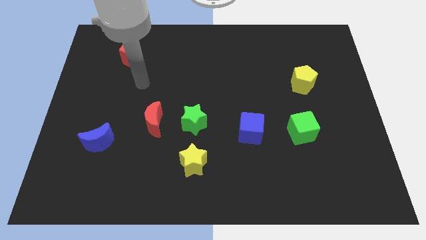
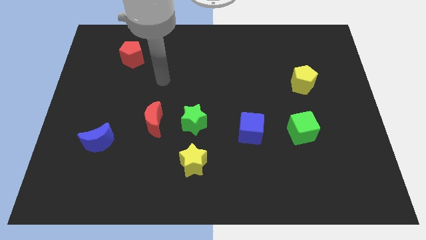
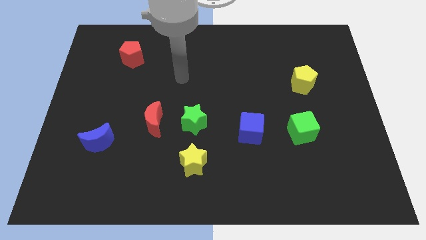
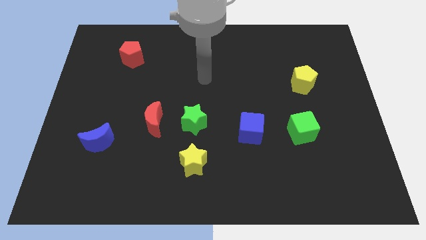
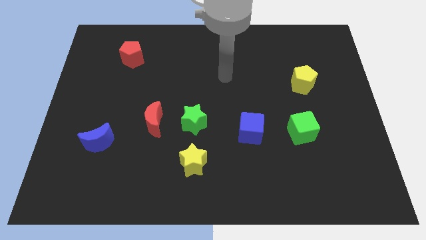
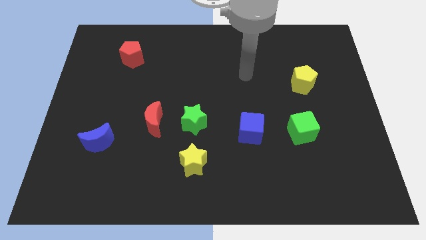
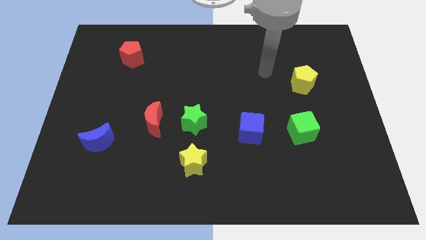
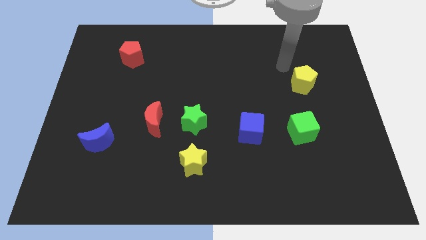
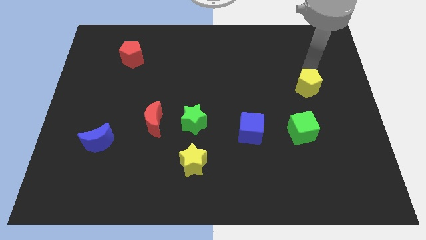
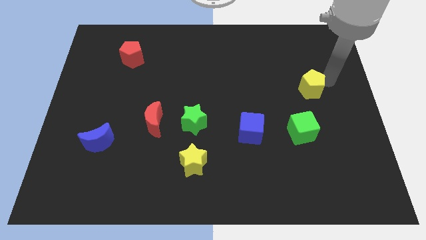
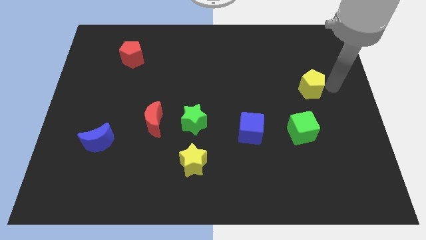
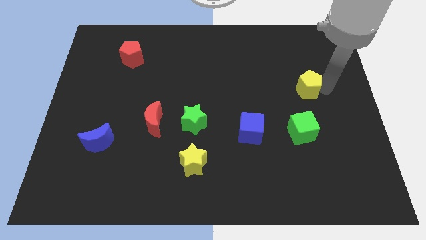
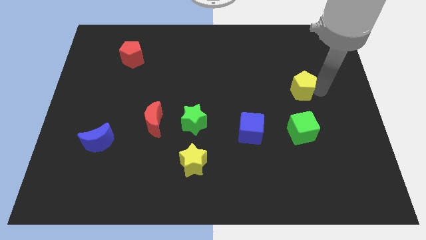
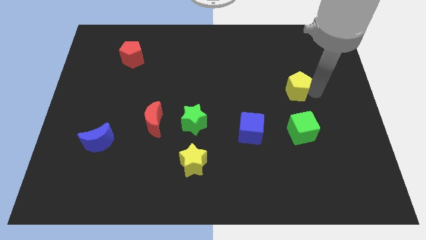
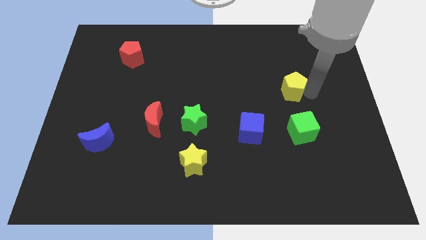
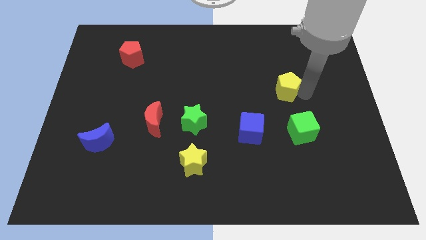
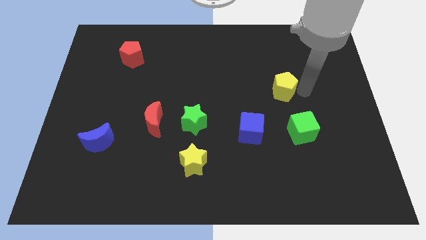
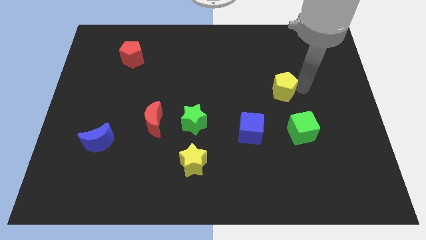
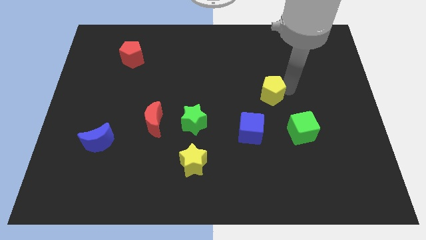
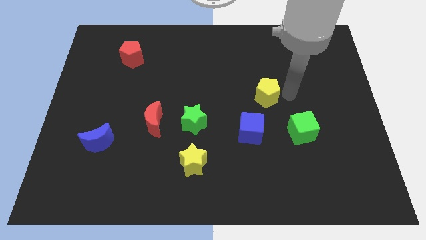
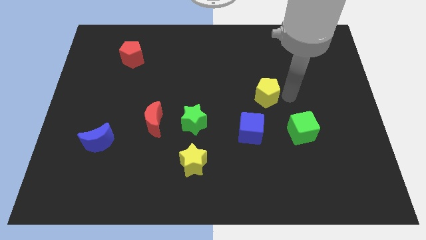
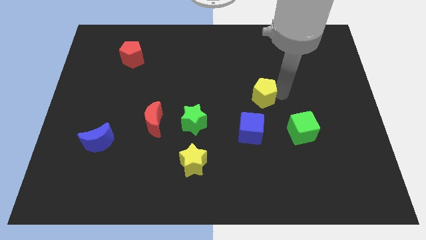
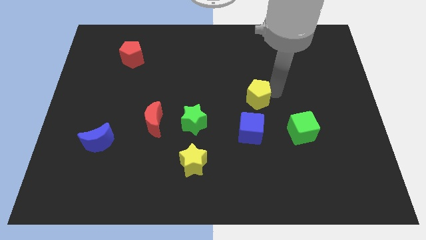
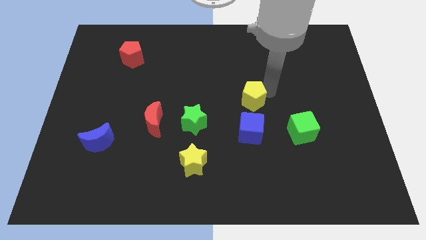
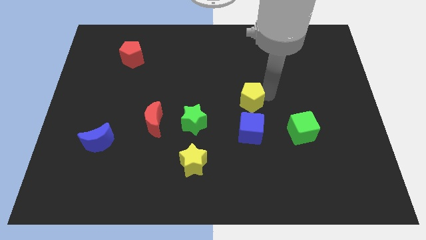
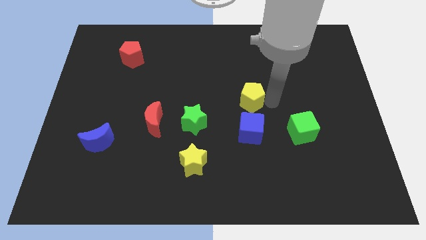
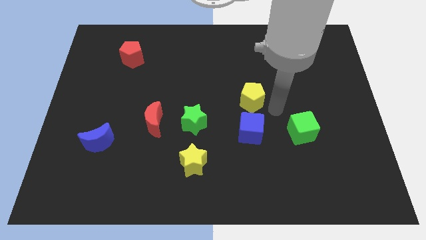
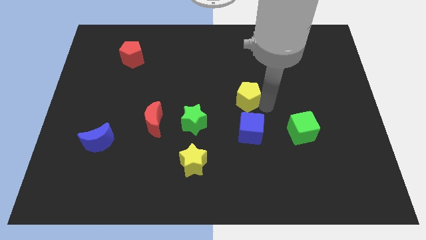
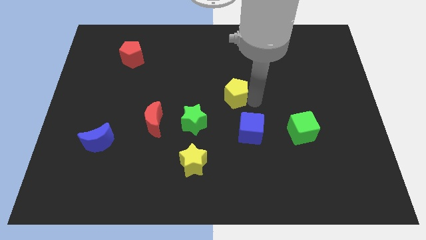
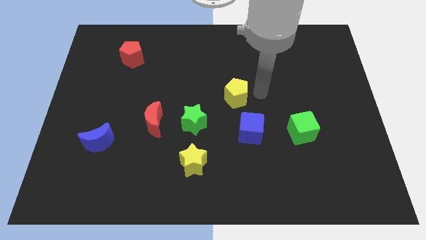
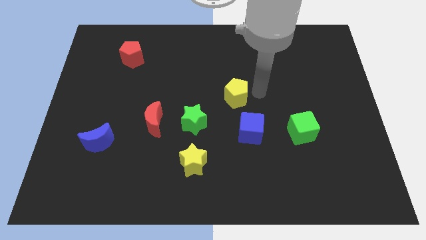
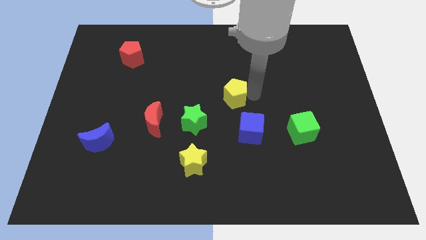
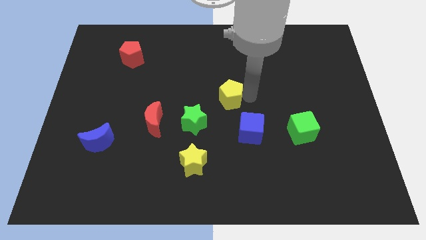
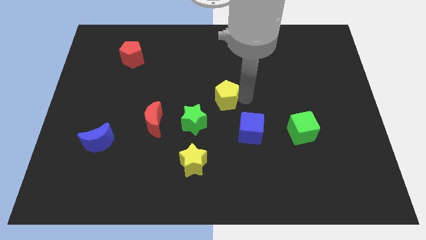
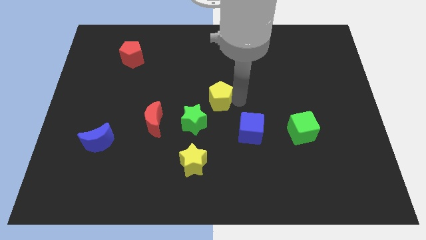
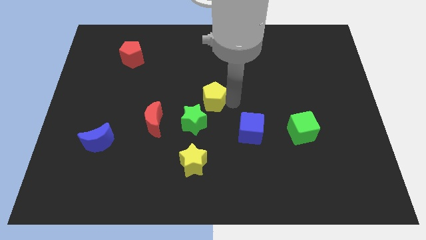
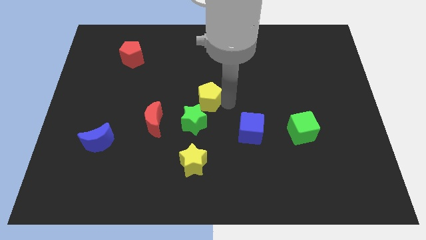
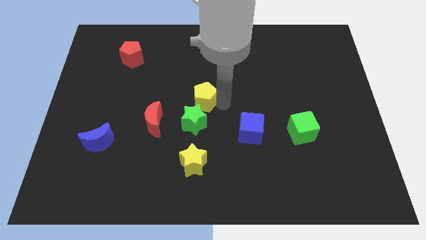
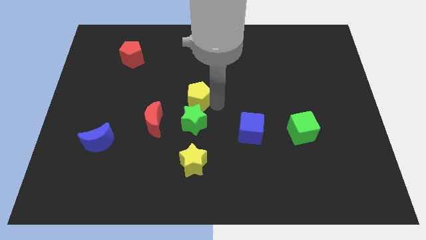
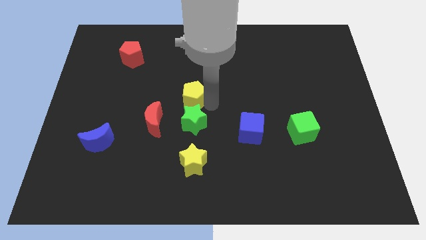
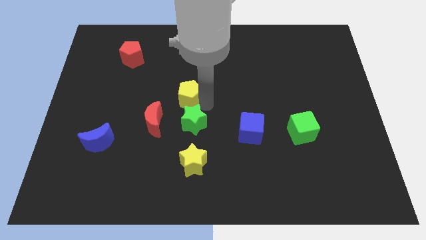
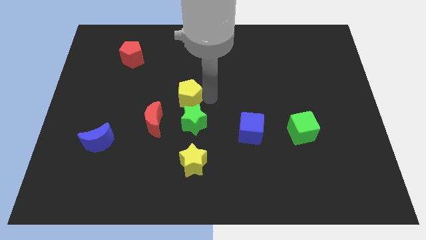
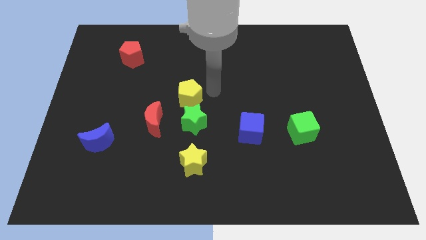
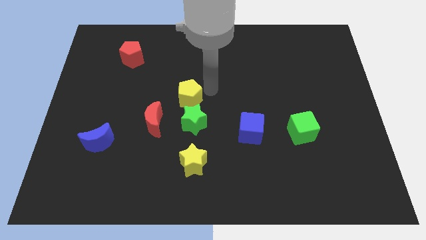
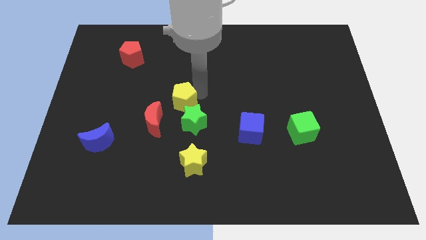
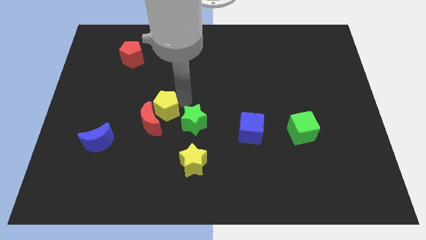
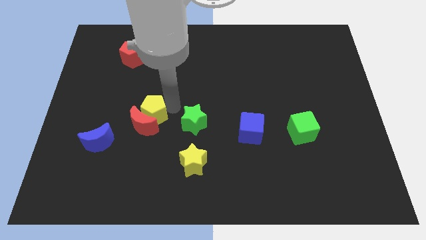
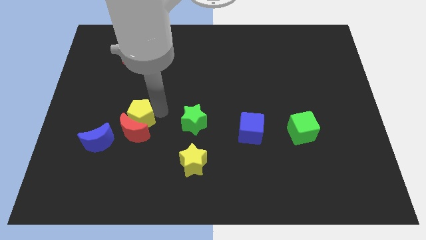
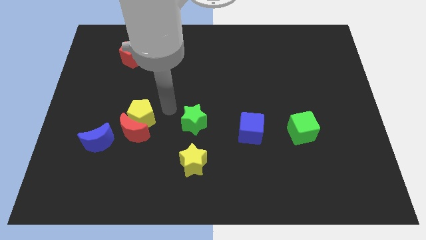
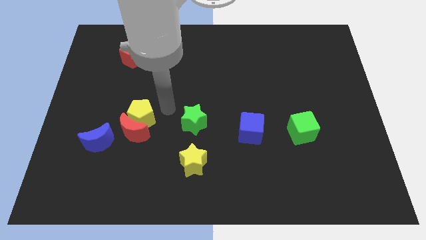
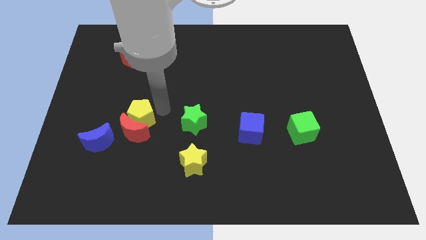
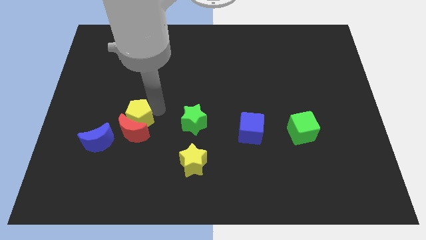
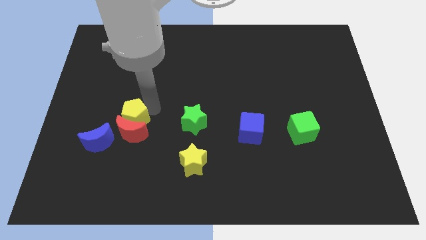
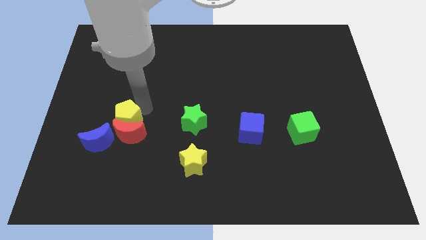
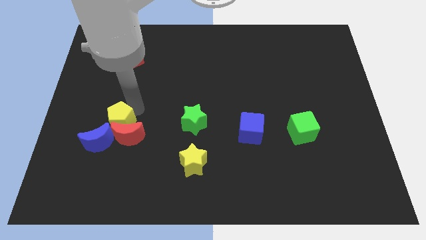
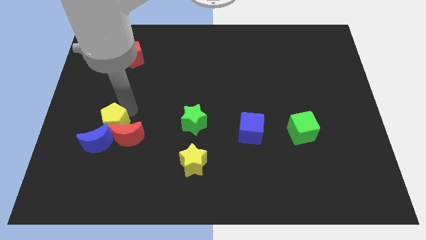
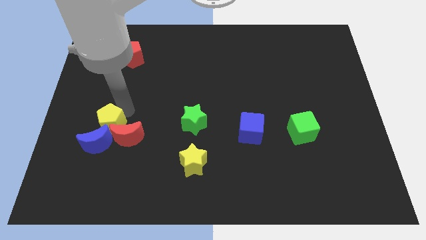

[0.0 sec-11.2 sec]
slide the yellow pentagon close to the blue moon

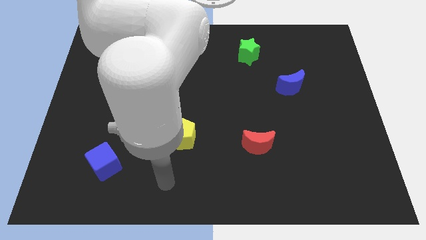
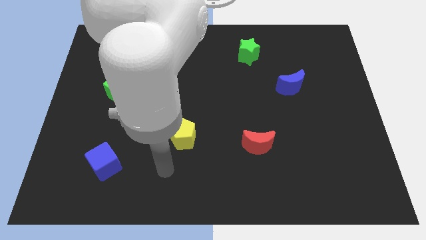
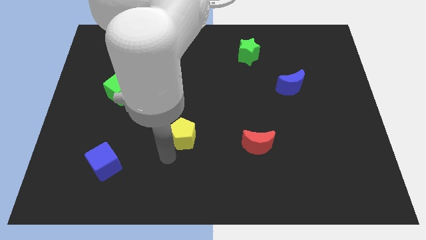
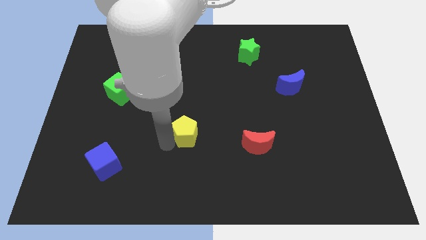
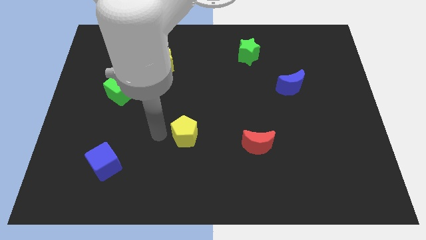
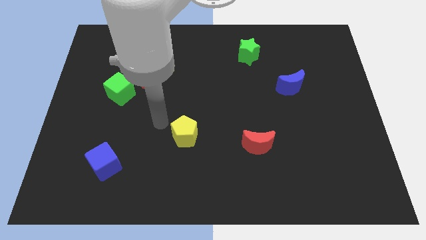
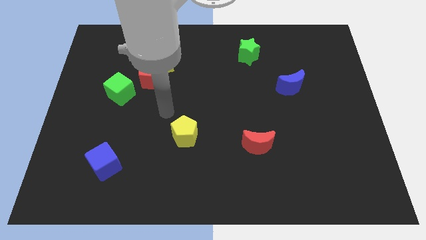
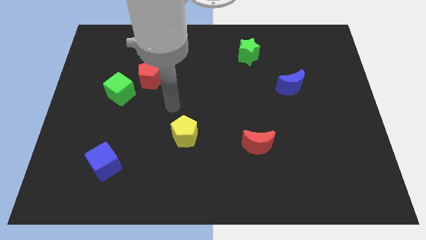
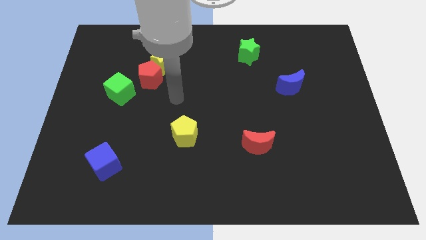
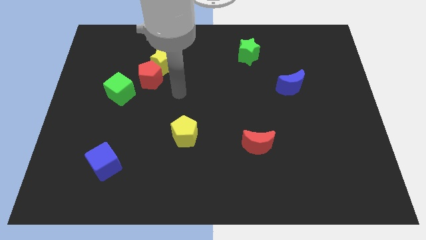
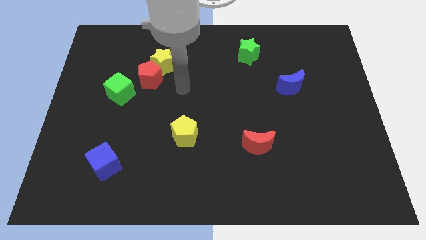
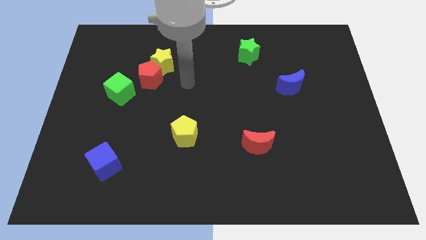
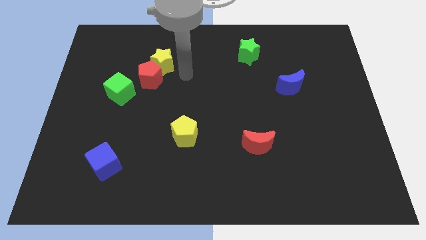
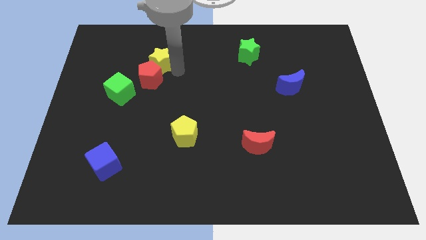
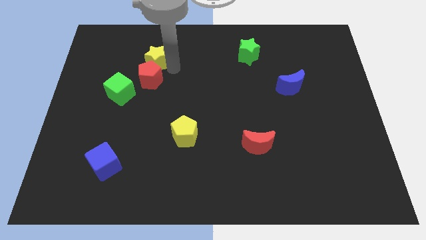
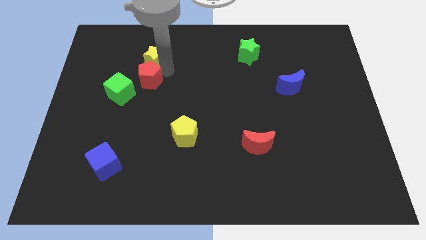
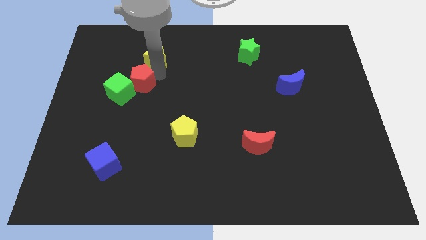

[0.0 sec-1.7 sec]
put the red pentagon towards the green cube
